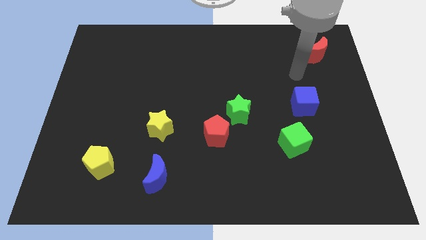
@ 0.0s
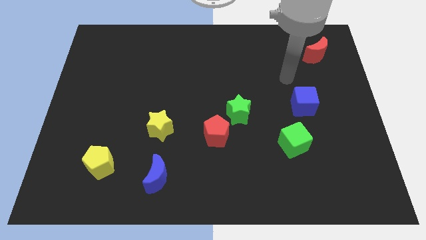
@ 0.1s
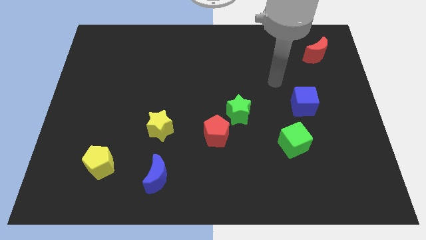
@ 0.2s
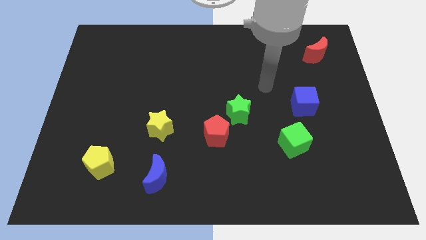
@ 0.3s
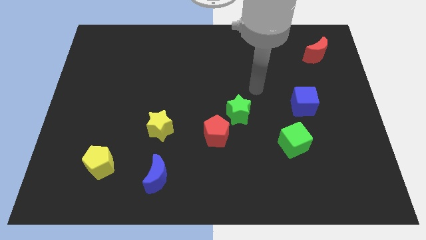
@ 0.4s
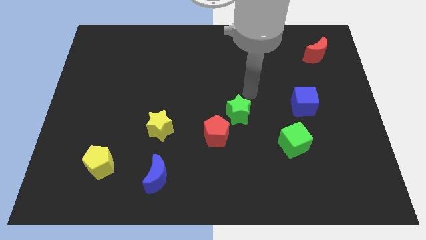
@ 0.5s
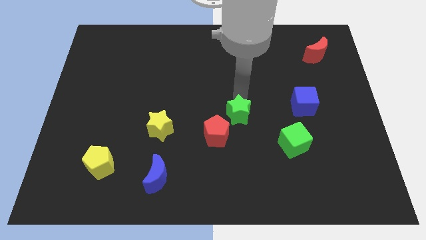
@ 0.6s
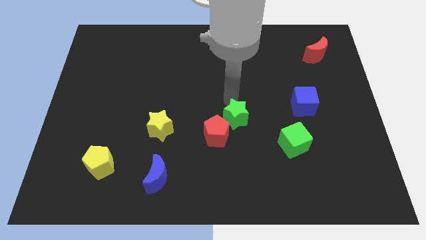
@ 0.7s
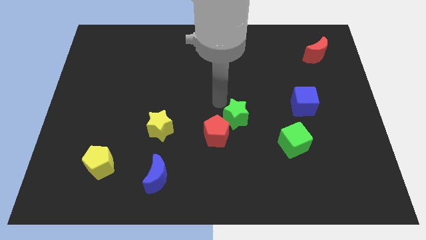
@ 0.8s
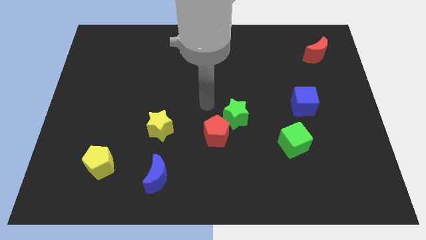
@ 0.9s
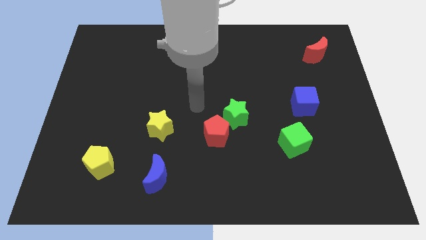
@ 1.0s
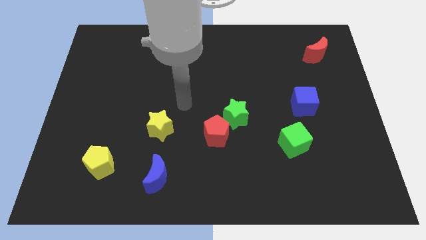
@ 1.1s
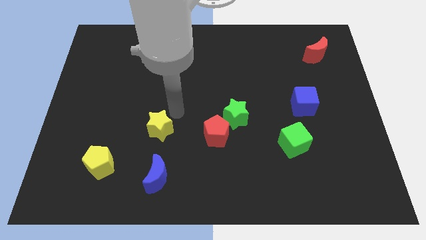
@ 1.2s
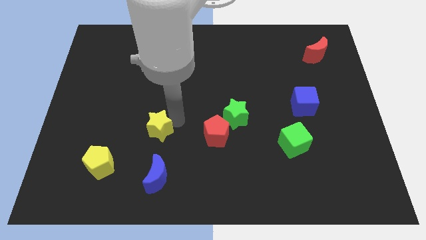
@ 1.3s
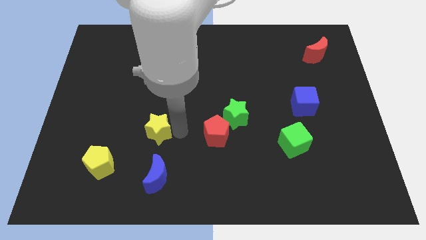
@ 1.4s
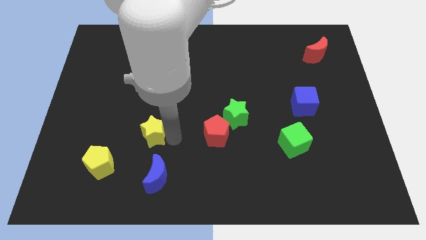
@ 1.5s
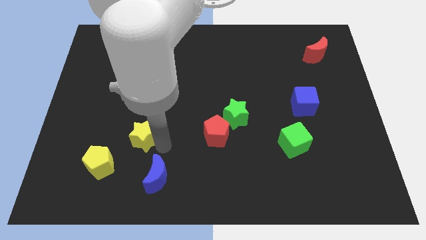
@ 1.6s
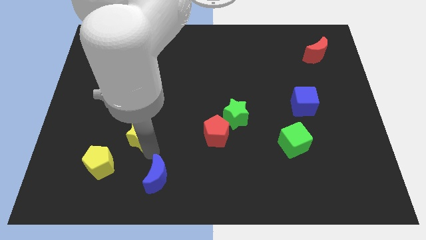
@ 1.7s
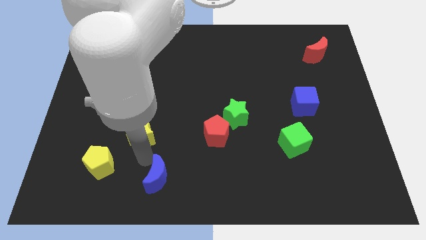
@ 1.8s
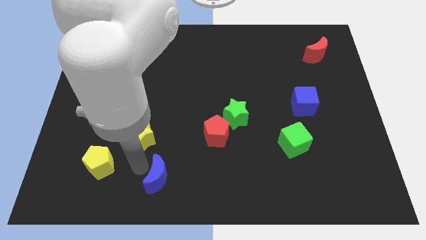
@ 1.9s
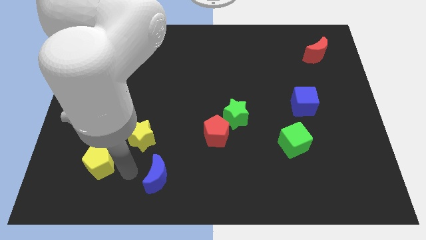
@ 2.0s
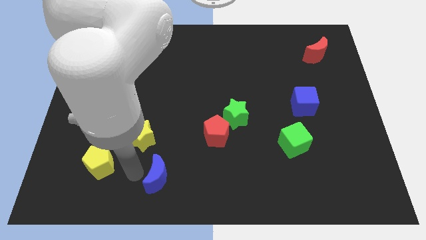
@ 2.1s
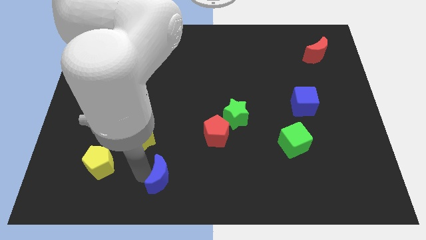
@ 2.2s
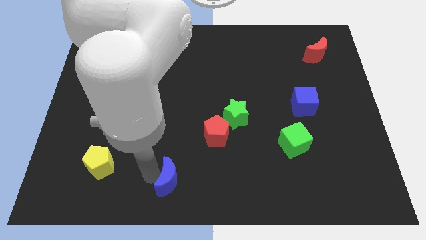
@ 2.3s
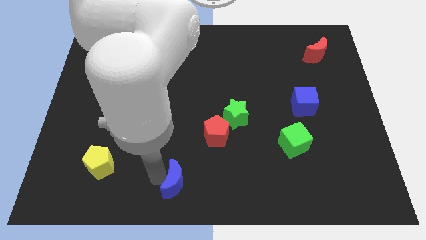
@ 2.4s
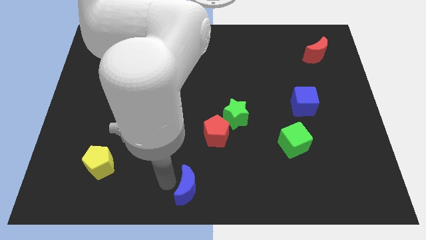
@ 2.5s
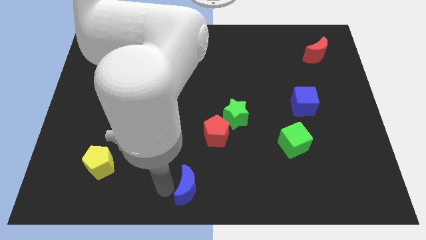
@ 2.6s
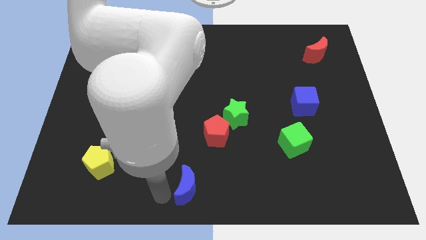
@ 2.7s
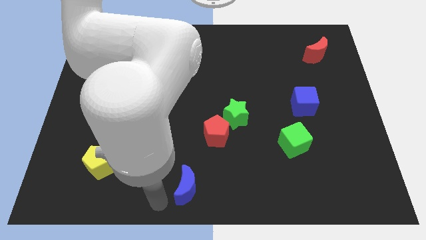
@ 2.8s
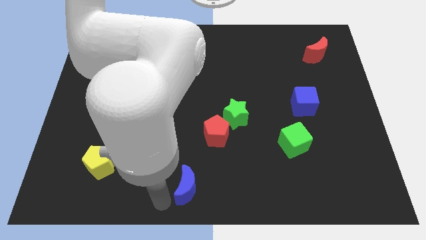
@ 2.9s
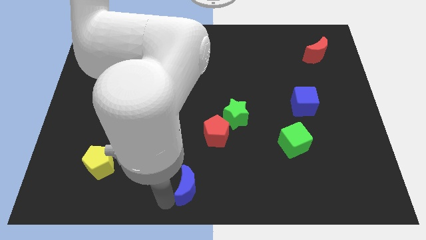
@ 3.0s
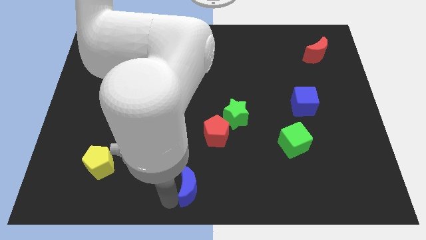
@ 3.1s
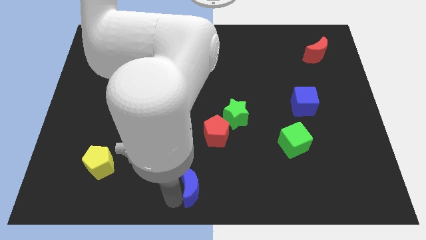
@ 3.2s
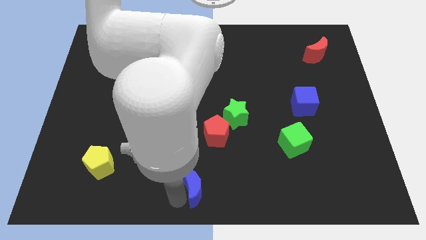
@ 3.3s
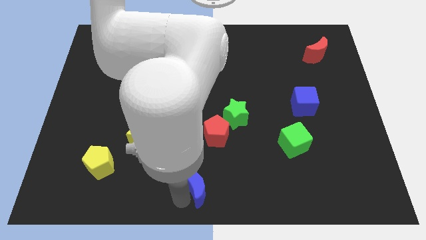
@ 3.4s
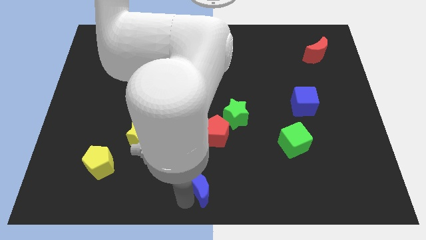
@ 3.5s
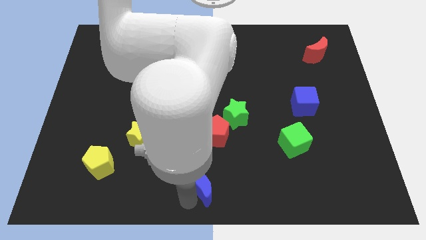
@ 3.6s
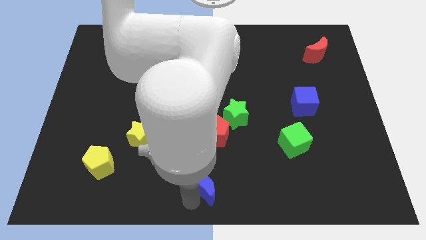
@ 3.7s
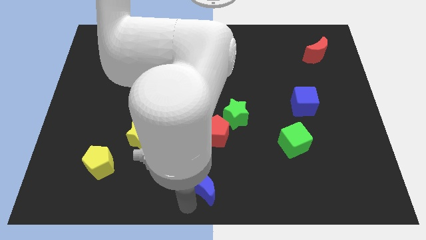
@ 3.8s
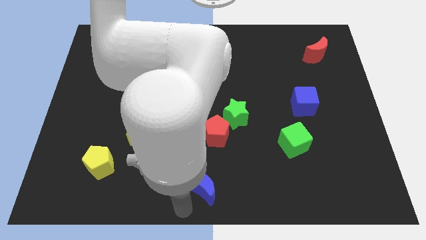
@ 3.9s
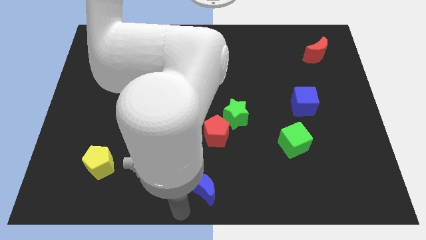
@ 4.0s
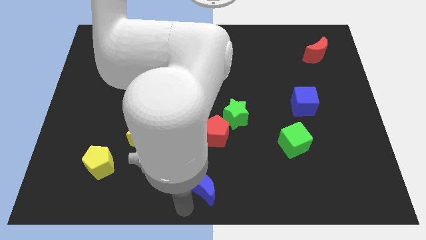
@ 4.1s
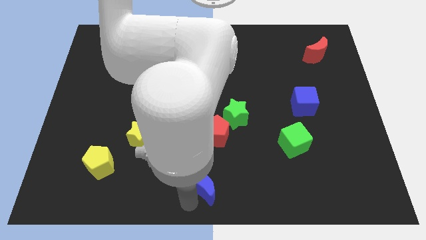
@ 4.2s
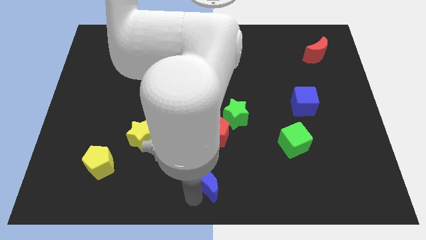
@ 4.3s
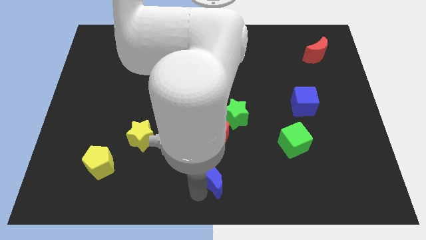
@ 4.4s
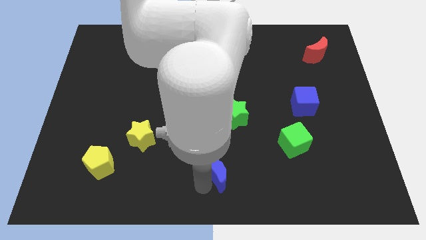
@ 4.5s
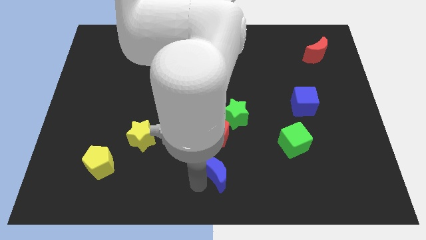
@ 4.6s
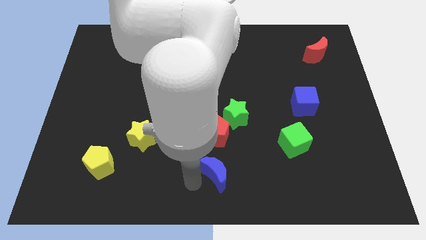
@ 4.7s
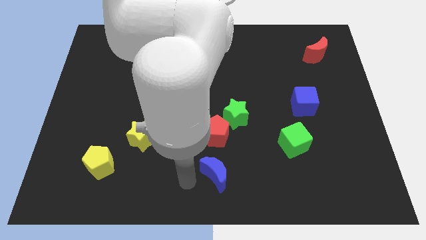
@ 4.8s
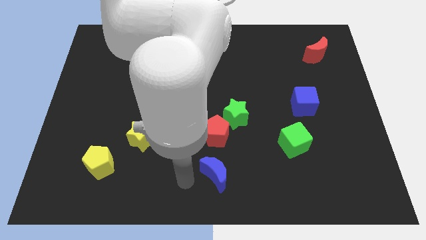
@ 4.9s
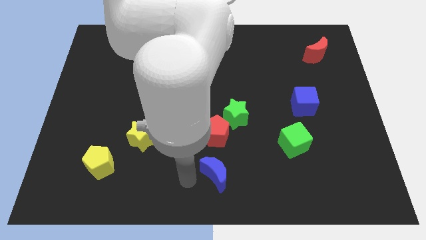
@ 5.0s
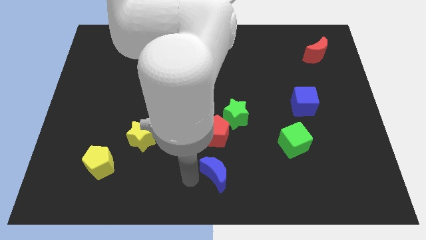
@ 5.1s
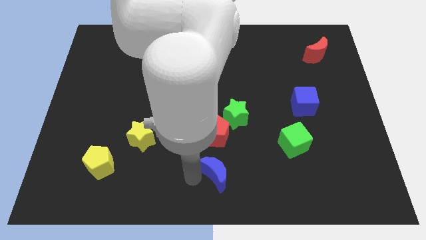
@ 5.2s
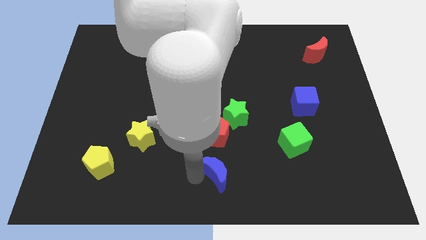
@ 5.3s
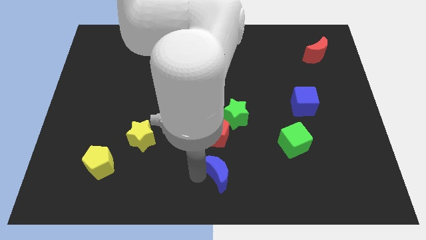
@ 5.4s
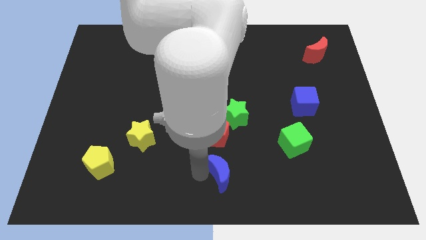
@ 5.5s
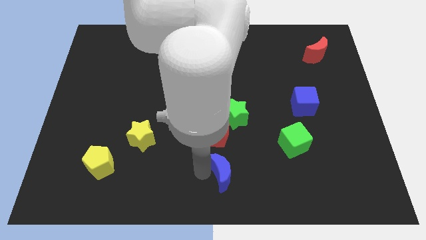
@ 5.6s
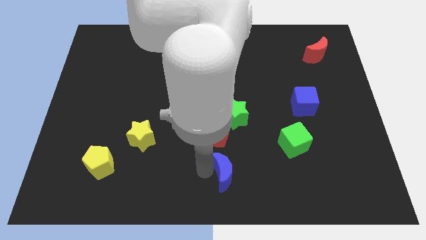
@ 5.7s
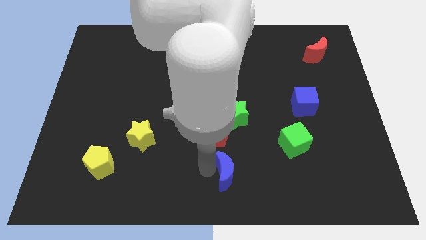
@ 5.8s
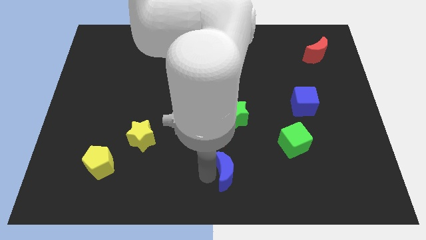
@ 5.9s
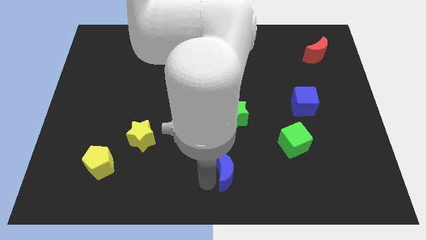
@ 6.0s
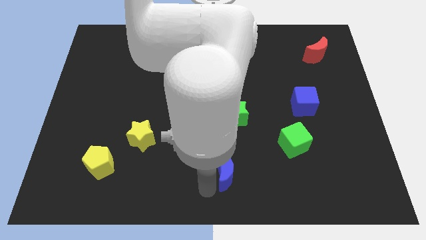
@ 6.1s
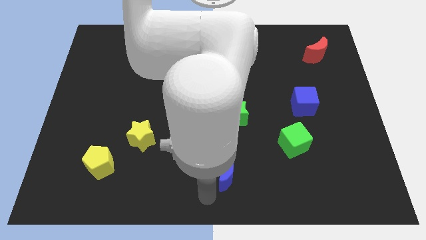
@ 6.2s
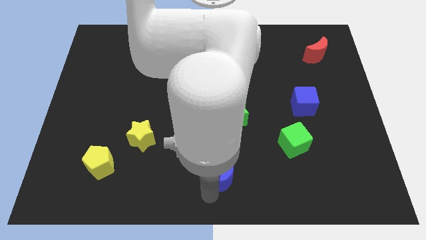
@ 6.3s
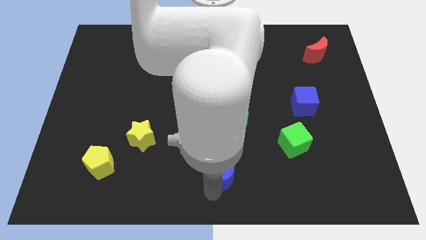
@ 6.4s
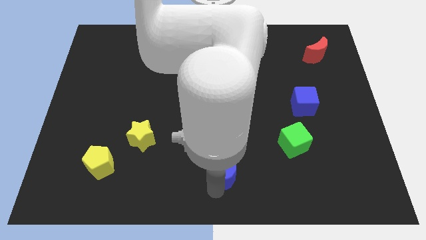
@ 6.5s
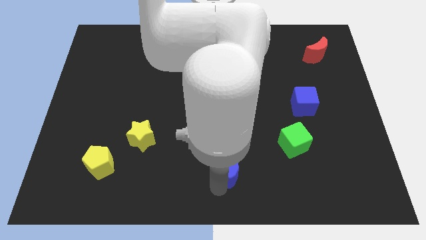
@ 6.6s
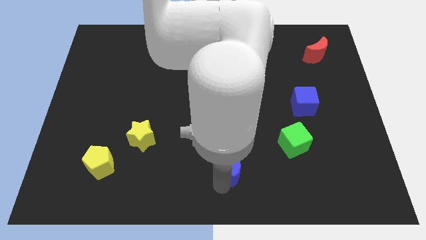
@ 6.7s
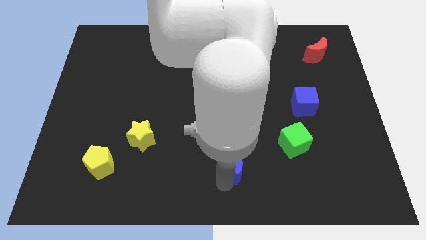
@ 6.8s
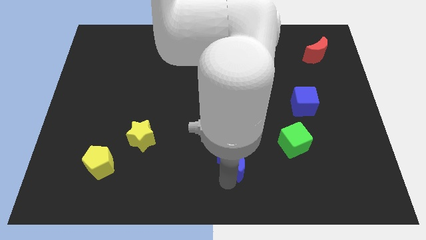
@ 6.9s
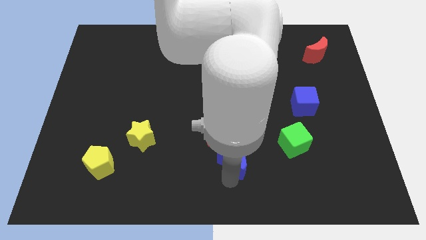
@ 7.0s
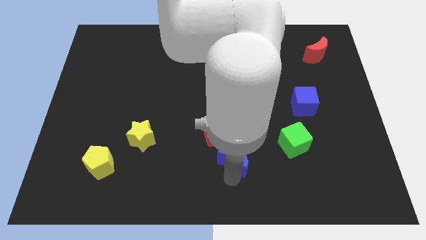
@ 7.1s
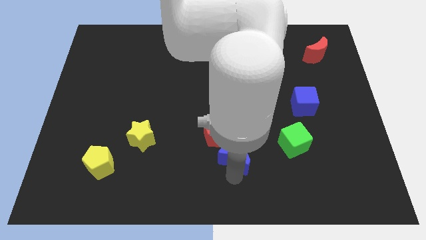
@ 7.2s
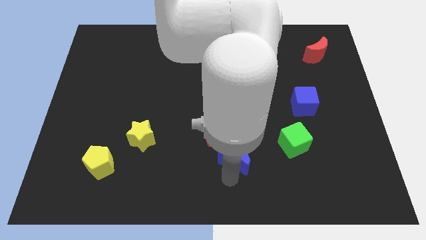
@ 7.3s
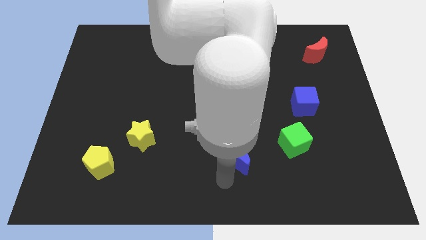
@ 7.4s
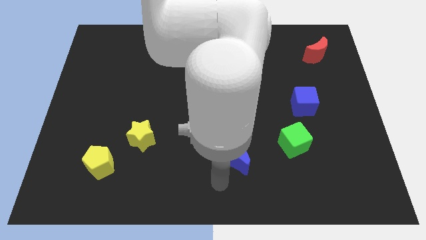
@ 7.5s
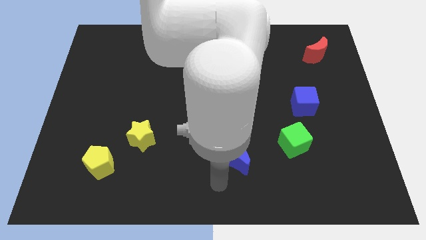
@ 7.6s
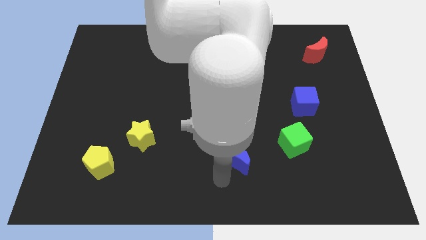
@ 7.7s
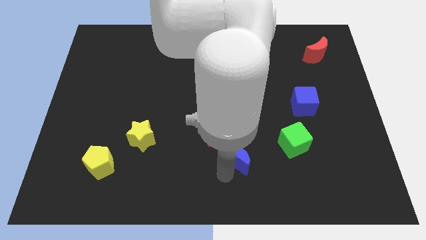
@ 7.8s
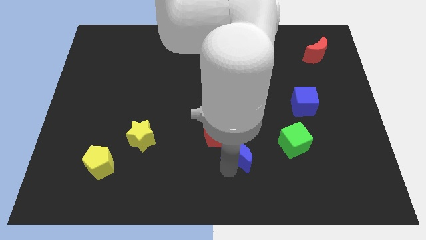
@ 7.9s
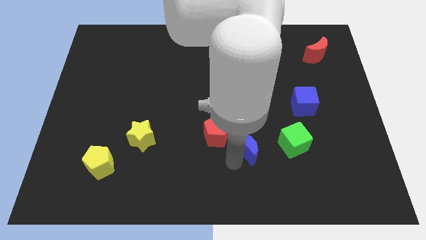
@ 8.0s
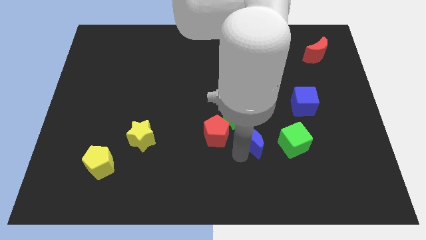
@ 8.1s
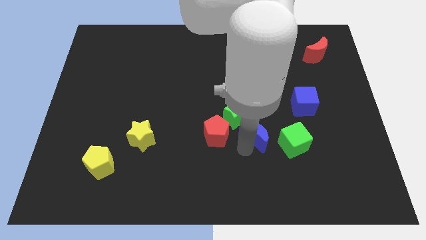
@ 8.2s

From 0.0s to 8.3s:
move the blue moon to the top left side of the green cube
